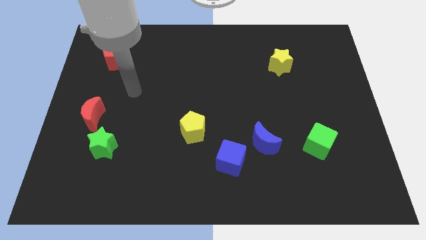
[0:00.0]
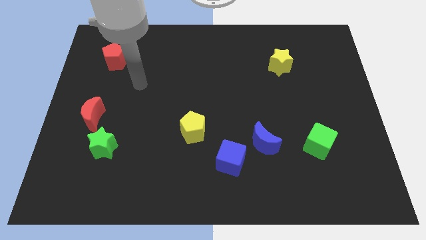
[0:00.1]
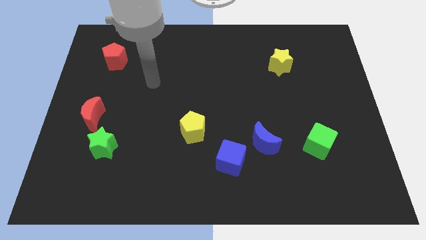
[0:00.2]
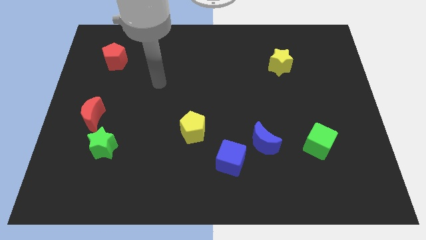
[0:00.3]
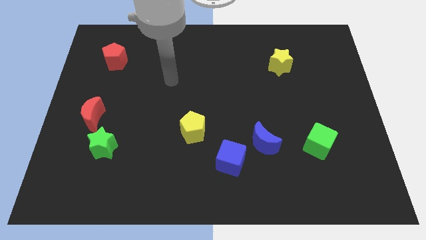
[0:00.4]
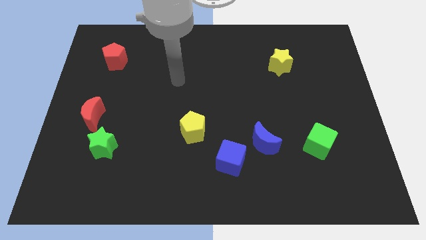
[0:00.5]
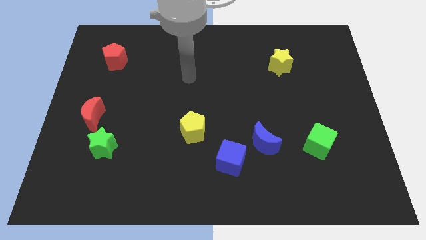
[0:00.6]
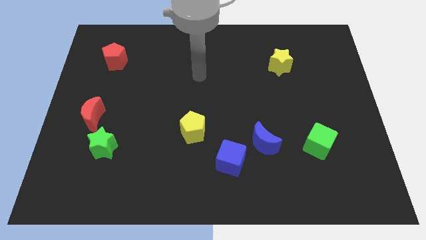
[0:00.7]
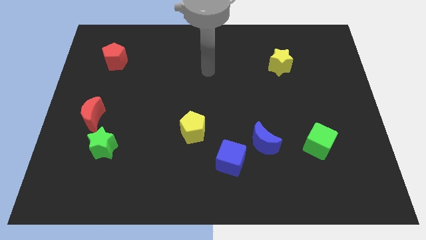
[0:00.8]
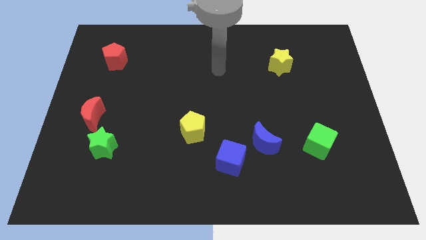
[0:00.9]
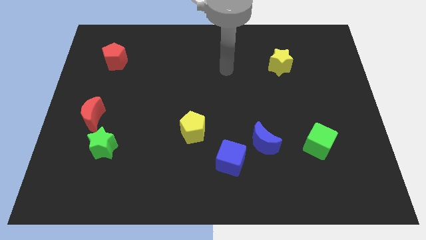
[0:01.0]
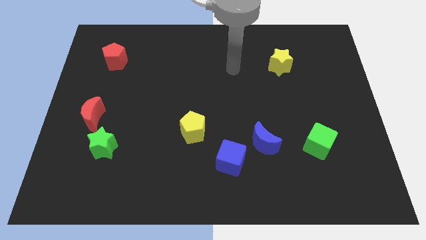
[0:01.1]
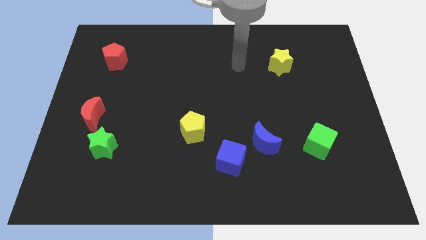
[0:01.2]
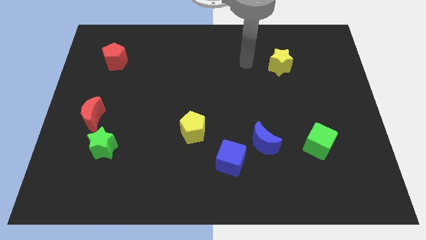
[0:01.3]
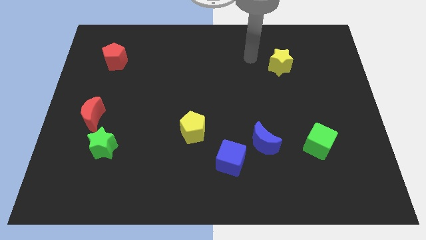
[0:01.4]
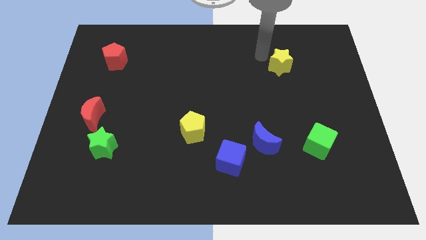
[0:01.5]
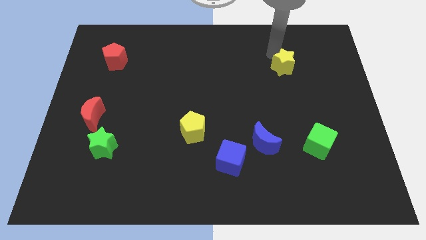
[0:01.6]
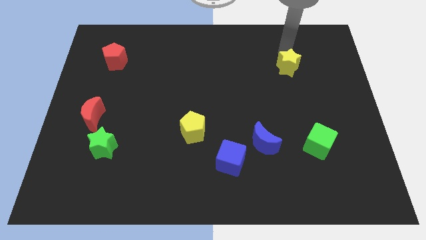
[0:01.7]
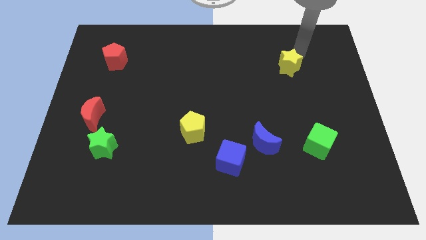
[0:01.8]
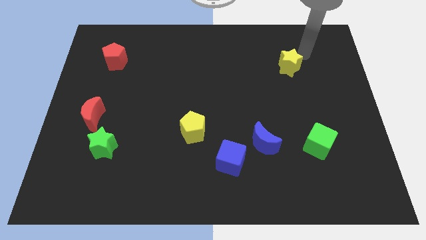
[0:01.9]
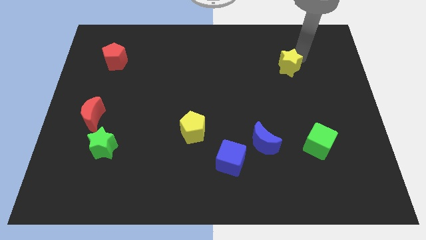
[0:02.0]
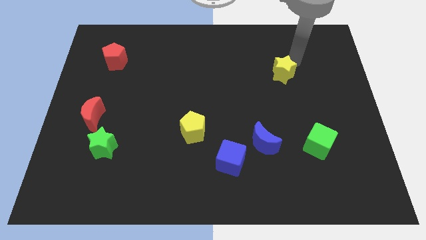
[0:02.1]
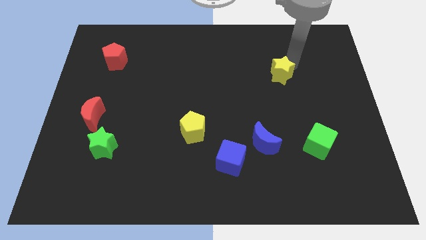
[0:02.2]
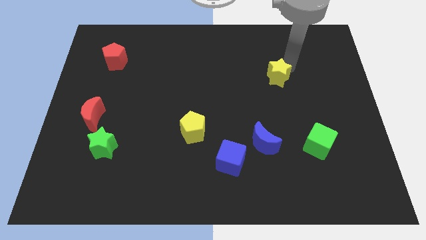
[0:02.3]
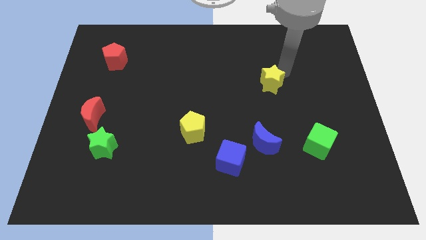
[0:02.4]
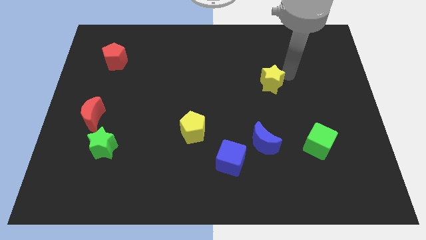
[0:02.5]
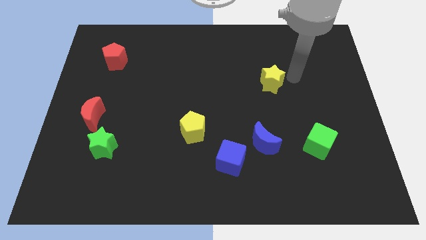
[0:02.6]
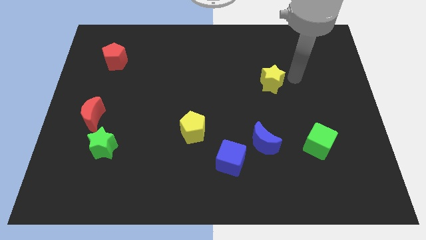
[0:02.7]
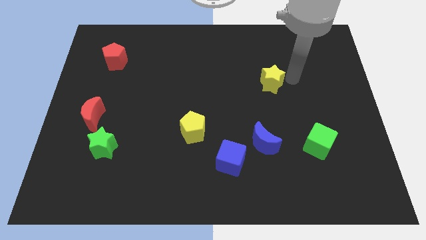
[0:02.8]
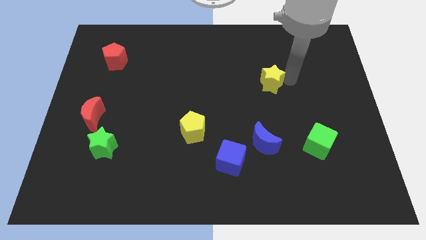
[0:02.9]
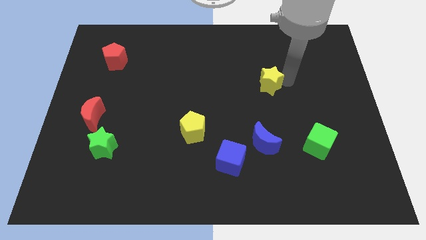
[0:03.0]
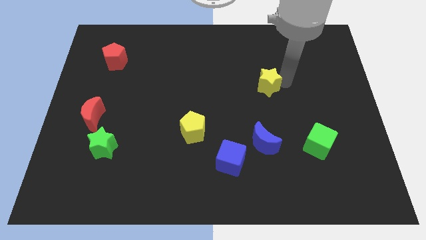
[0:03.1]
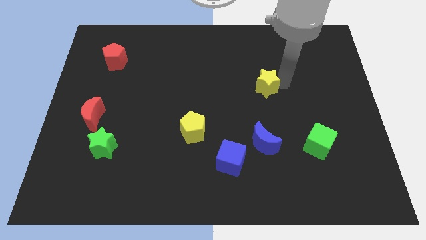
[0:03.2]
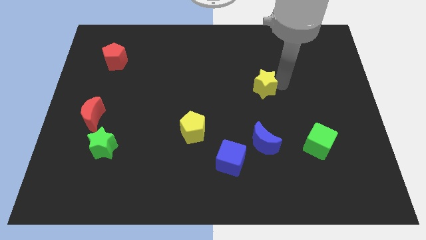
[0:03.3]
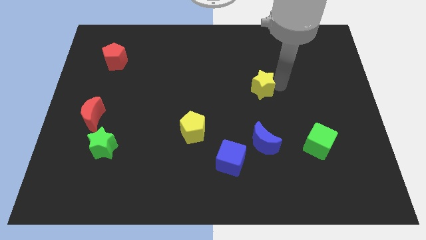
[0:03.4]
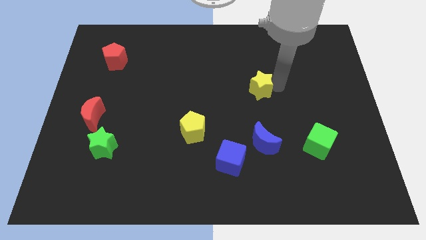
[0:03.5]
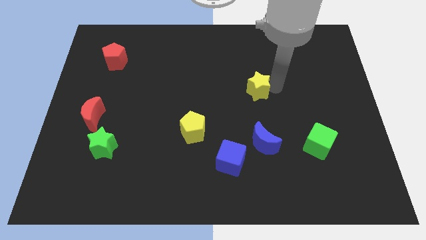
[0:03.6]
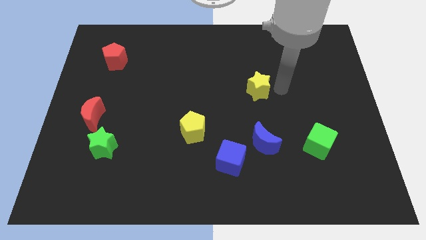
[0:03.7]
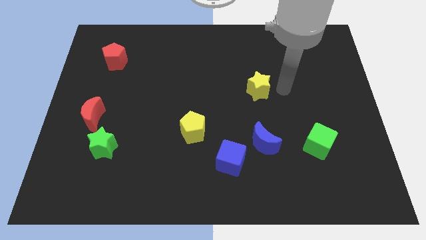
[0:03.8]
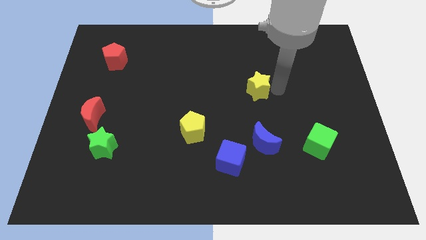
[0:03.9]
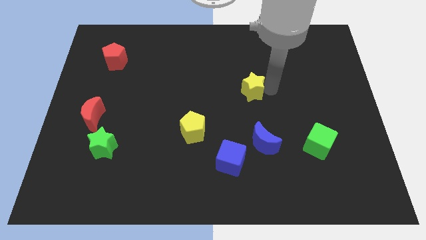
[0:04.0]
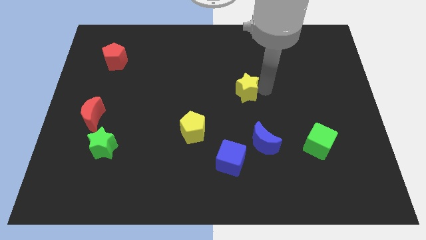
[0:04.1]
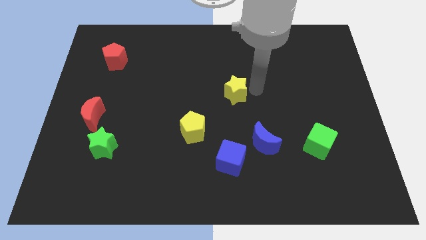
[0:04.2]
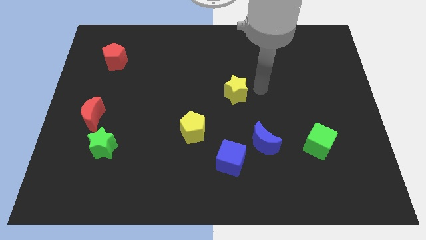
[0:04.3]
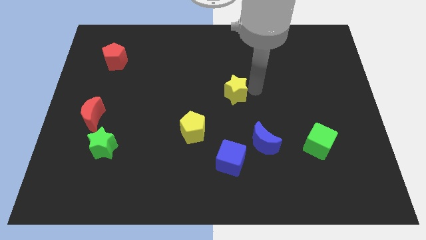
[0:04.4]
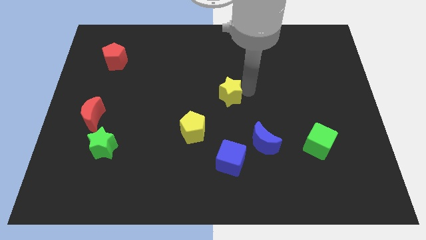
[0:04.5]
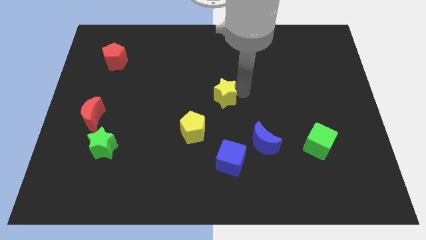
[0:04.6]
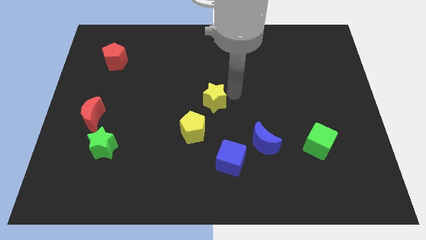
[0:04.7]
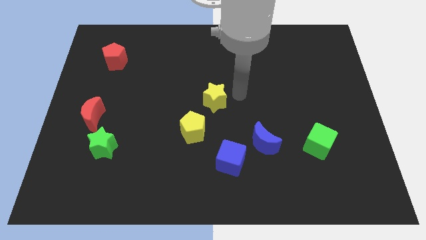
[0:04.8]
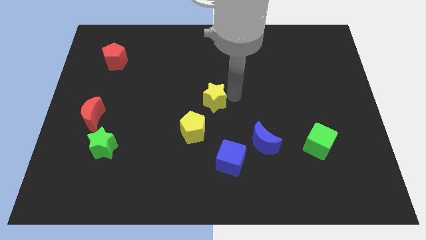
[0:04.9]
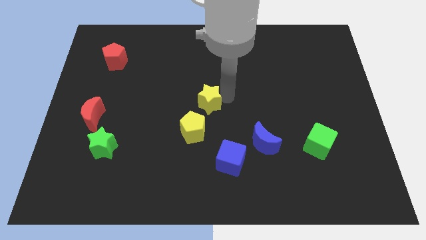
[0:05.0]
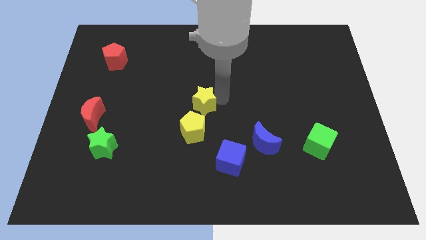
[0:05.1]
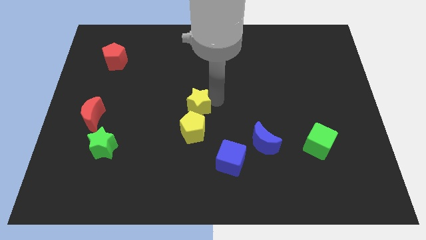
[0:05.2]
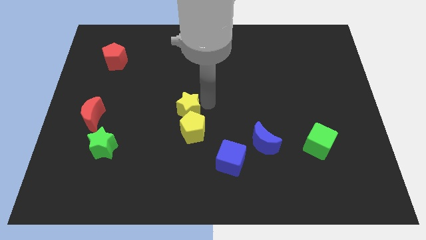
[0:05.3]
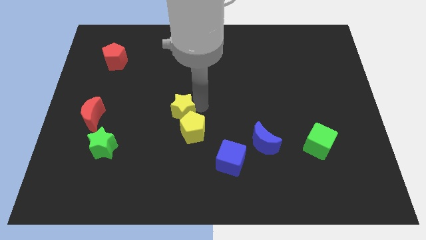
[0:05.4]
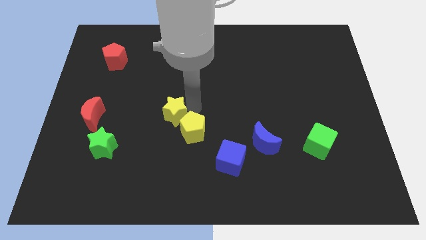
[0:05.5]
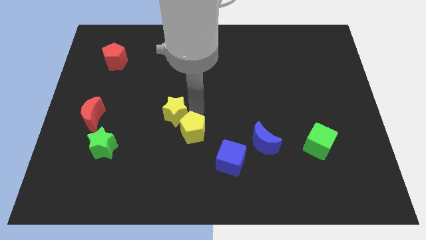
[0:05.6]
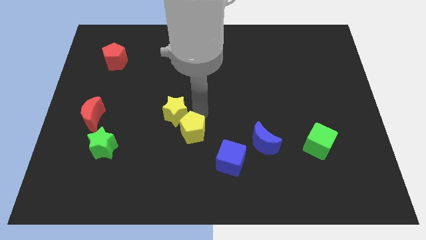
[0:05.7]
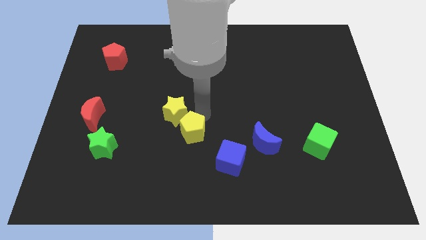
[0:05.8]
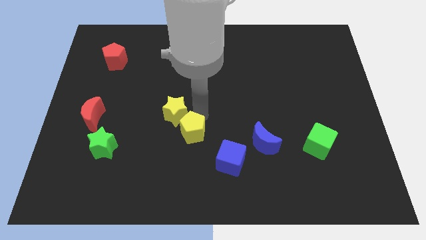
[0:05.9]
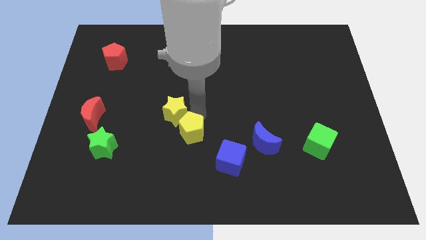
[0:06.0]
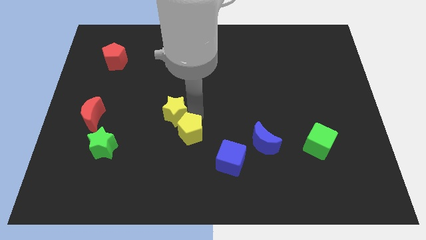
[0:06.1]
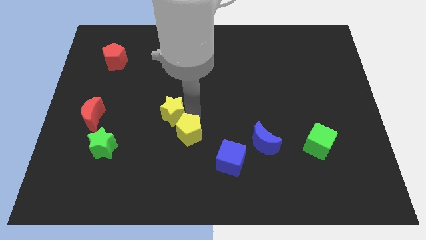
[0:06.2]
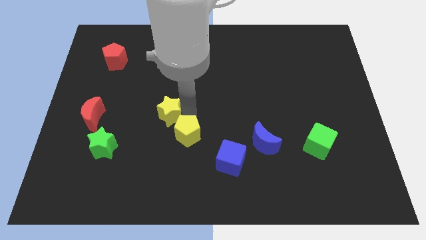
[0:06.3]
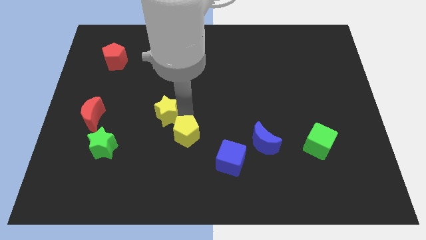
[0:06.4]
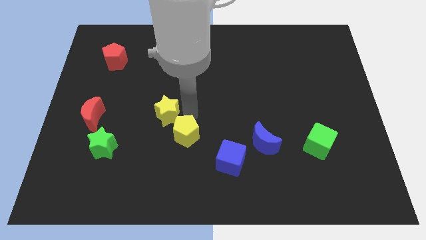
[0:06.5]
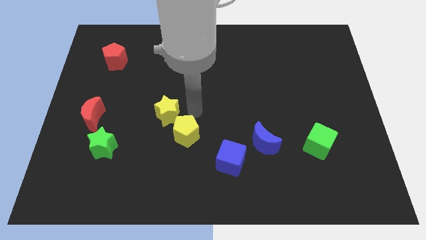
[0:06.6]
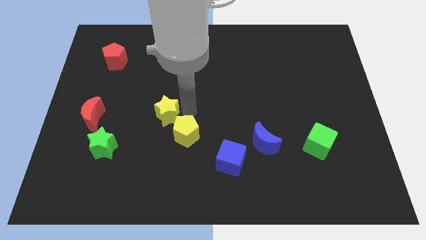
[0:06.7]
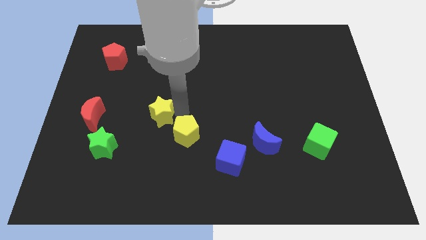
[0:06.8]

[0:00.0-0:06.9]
push the yellow star to the right side of the red moon

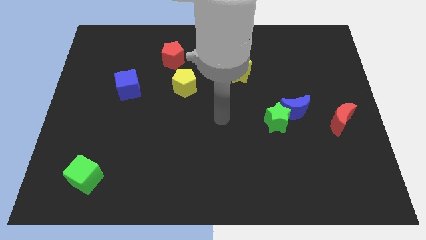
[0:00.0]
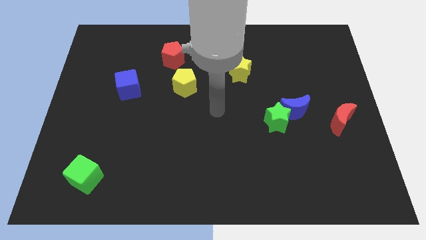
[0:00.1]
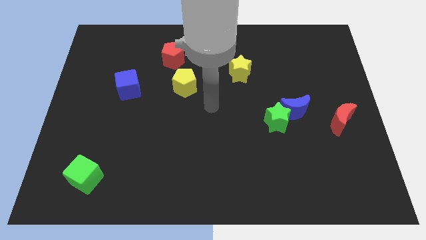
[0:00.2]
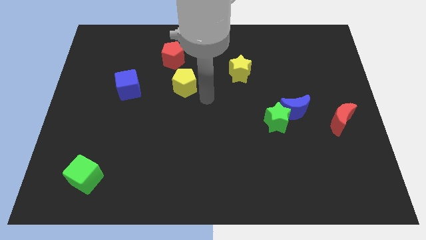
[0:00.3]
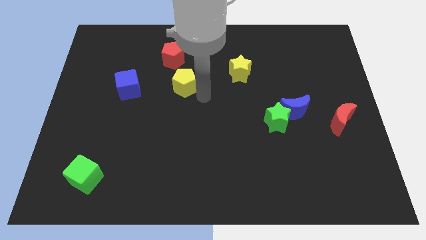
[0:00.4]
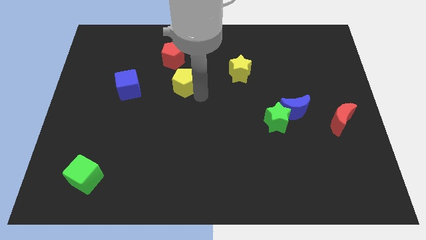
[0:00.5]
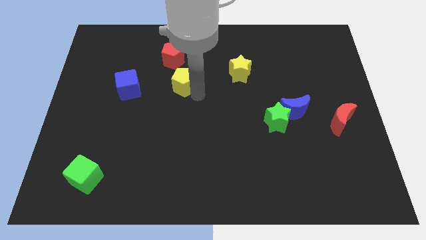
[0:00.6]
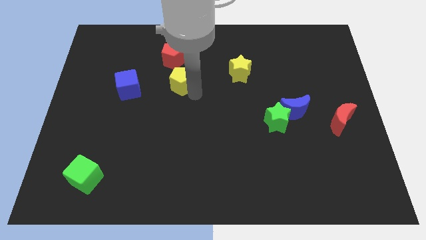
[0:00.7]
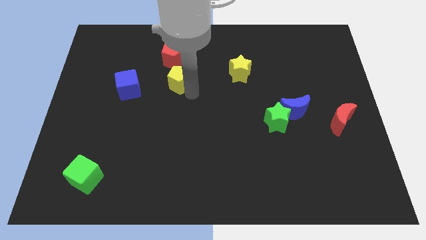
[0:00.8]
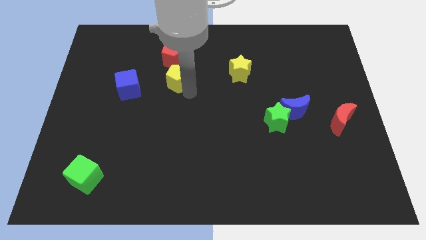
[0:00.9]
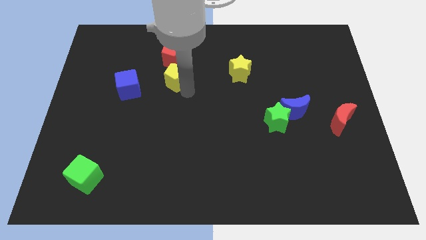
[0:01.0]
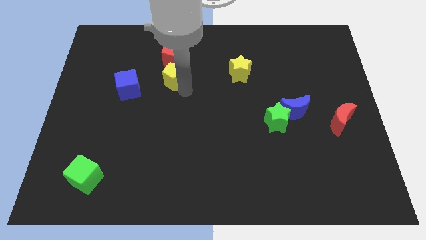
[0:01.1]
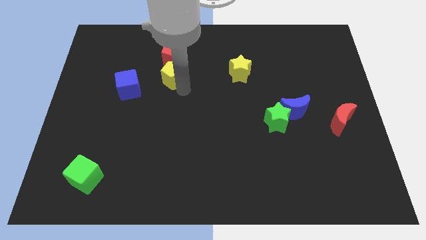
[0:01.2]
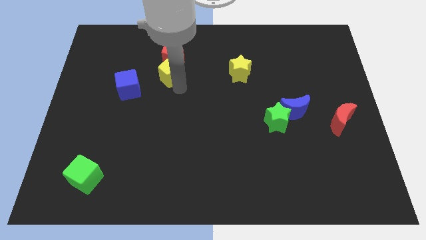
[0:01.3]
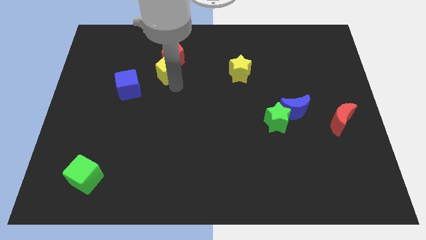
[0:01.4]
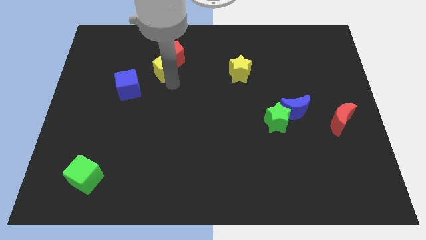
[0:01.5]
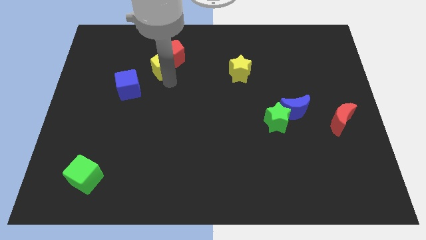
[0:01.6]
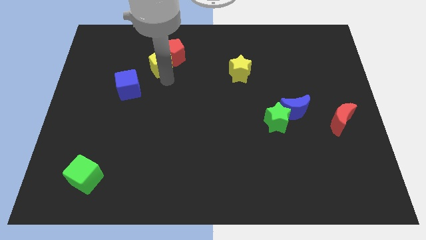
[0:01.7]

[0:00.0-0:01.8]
put the yellow pentagon to the left of the red pentagon
